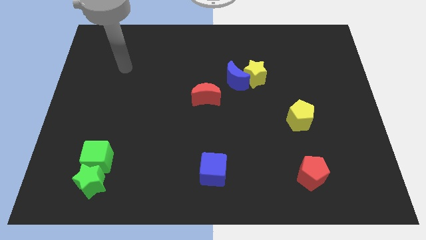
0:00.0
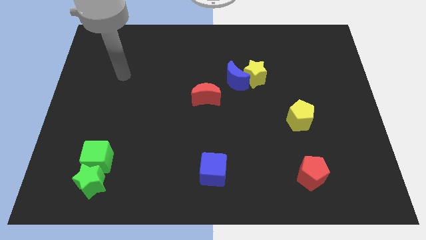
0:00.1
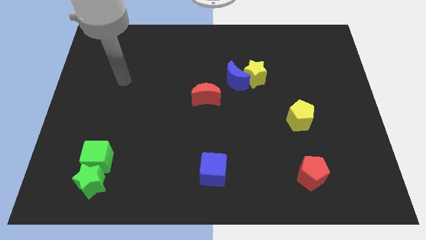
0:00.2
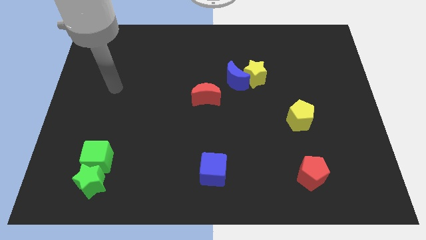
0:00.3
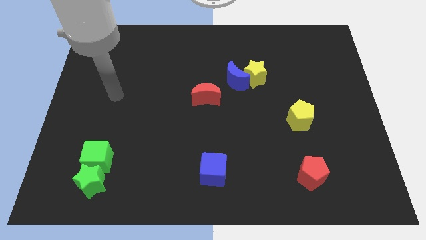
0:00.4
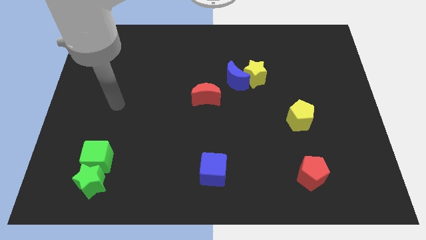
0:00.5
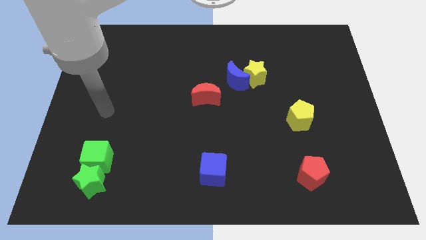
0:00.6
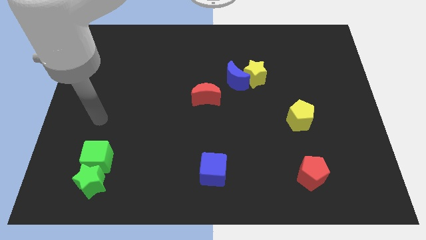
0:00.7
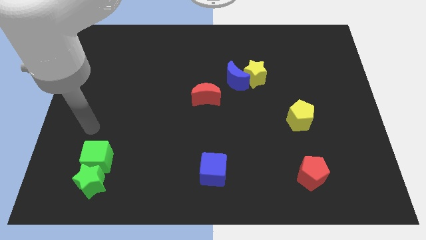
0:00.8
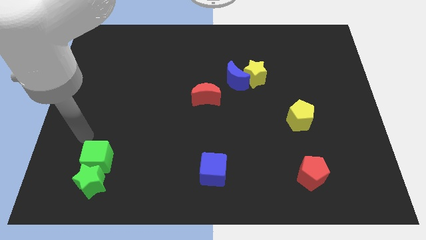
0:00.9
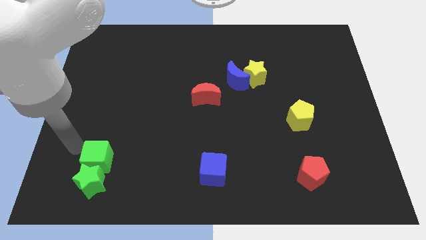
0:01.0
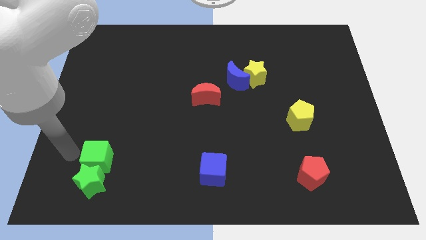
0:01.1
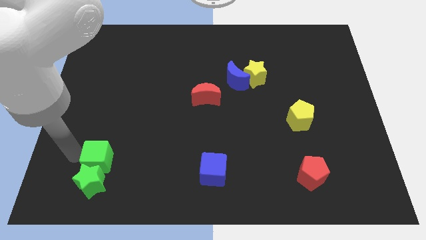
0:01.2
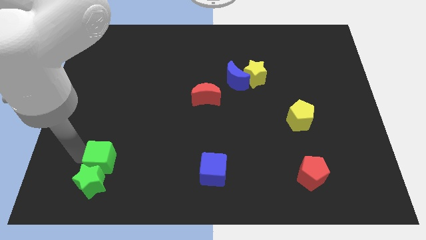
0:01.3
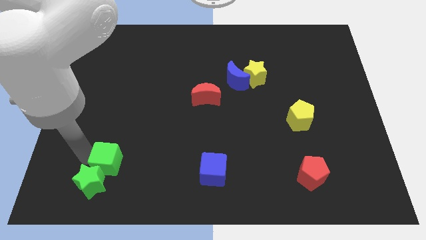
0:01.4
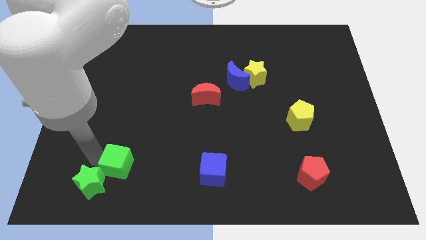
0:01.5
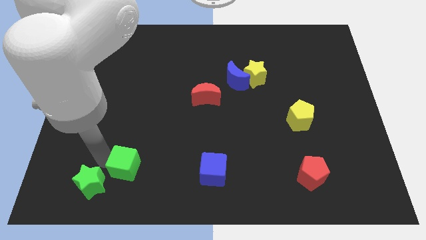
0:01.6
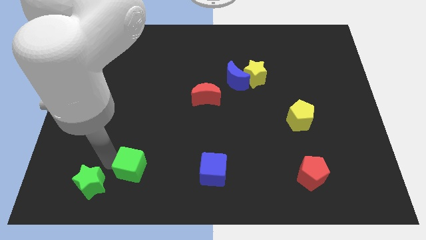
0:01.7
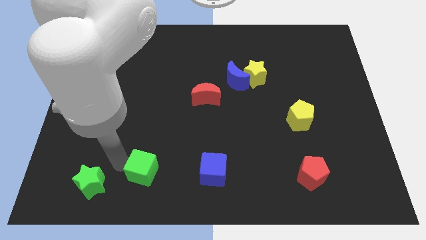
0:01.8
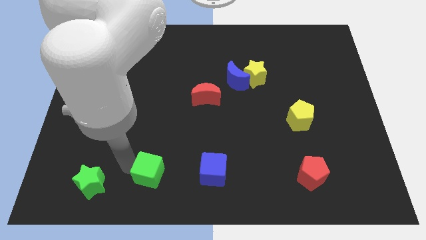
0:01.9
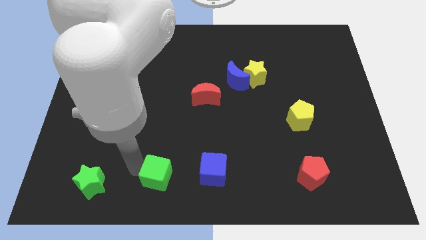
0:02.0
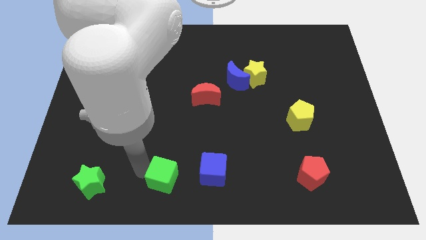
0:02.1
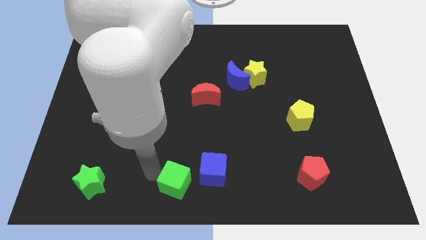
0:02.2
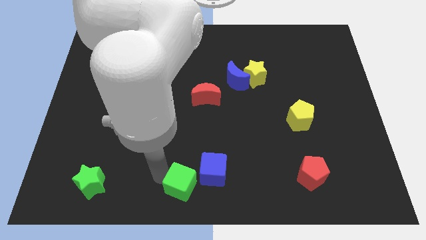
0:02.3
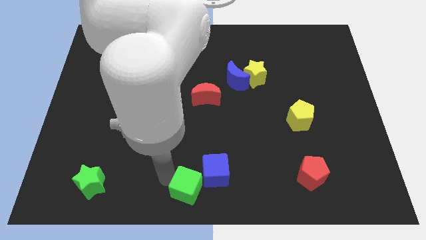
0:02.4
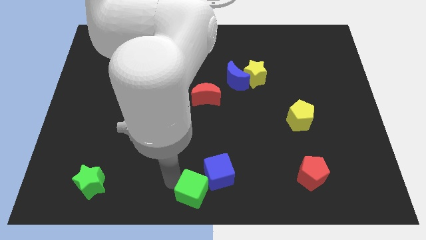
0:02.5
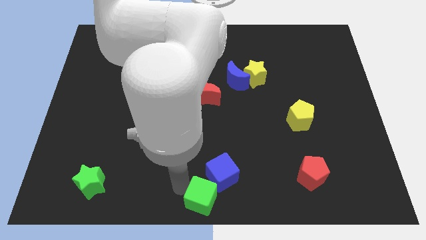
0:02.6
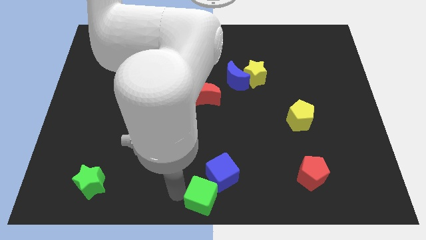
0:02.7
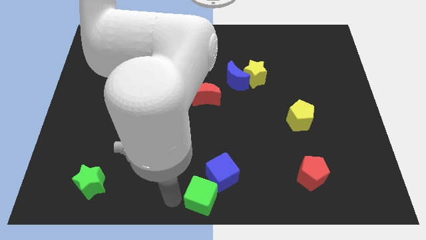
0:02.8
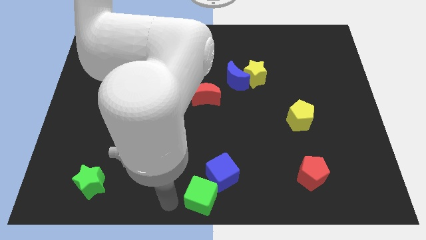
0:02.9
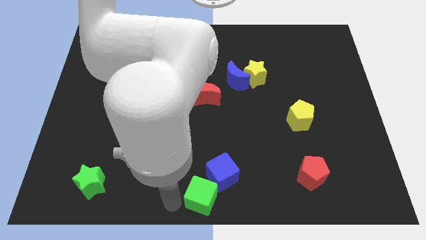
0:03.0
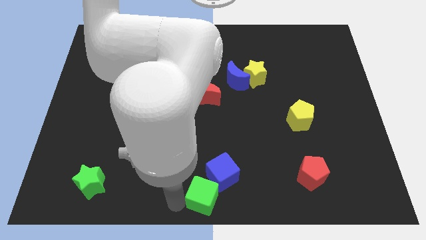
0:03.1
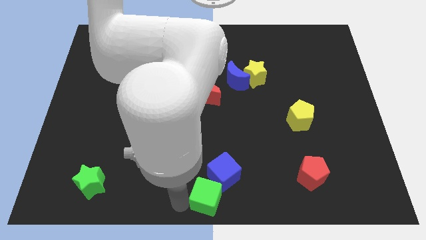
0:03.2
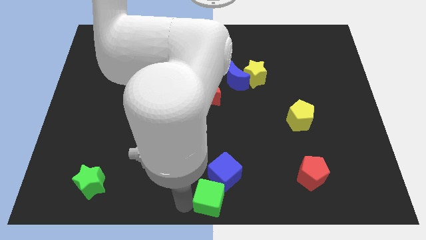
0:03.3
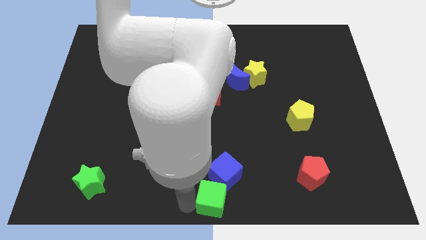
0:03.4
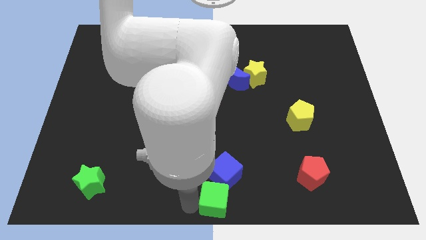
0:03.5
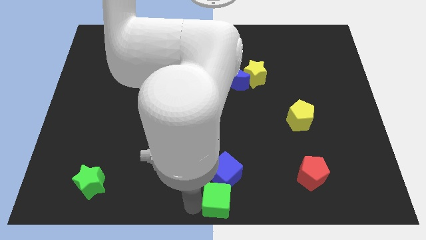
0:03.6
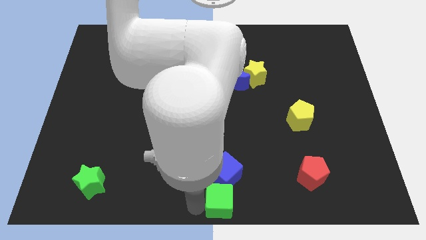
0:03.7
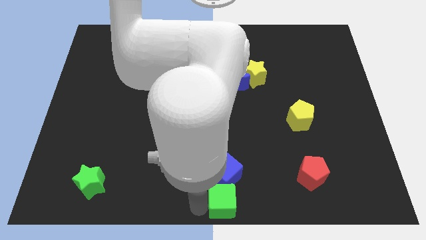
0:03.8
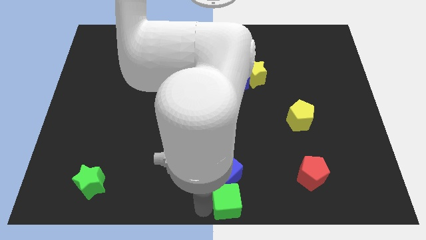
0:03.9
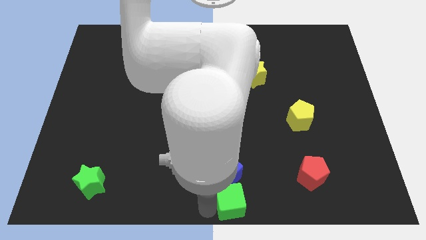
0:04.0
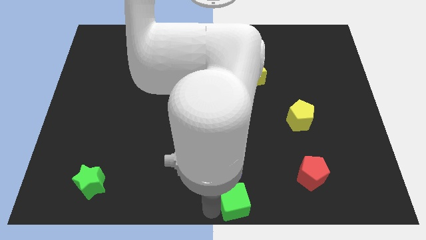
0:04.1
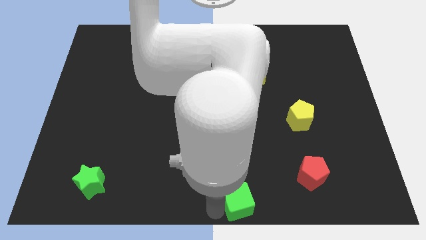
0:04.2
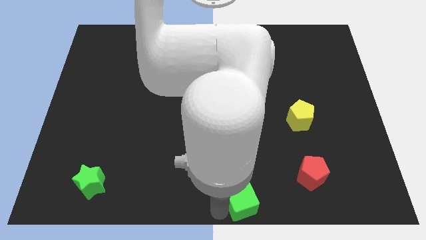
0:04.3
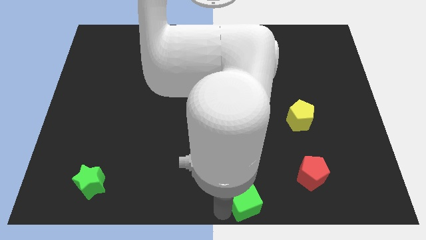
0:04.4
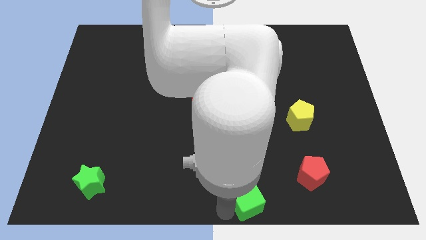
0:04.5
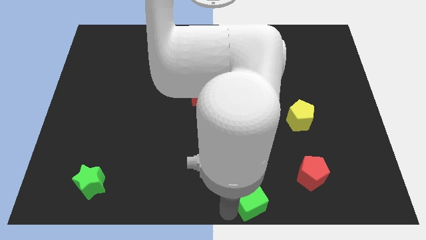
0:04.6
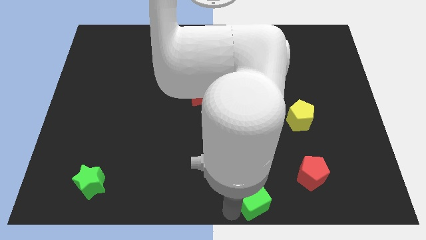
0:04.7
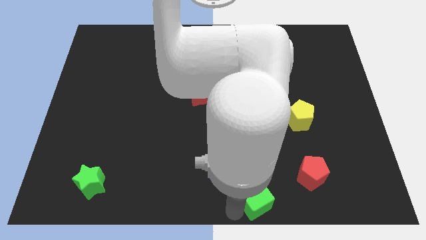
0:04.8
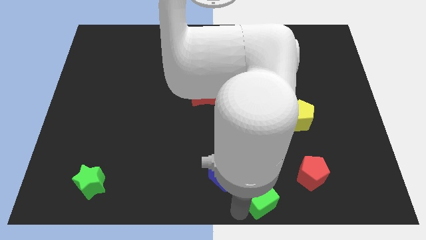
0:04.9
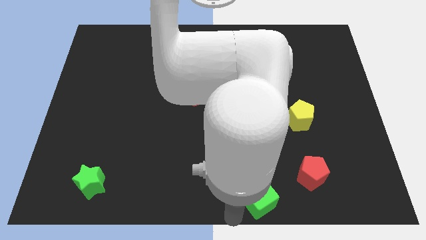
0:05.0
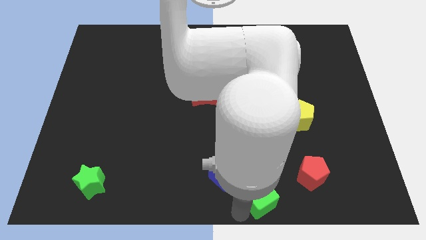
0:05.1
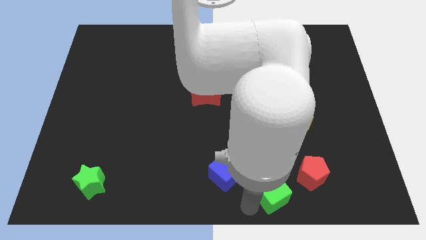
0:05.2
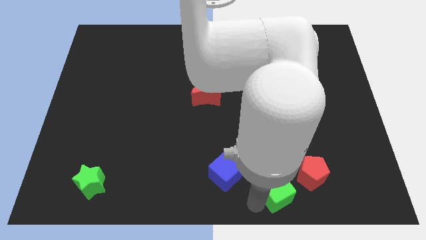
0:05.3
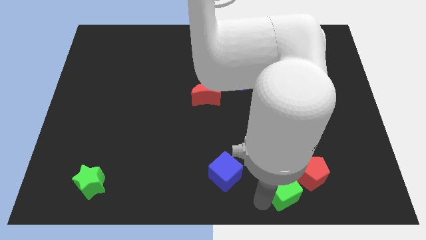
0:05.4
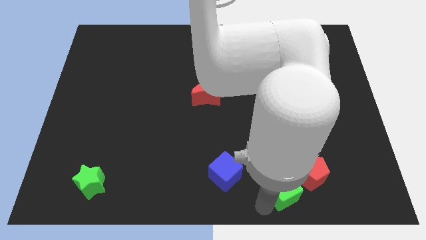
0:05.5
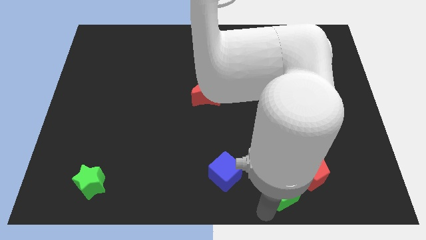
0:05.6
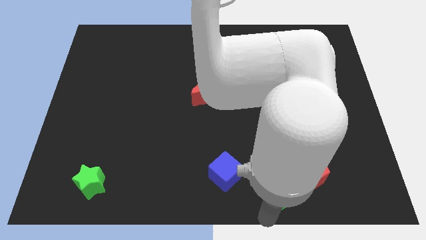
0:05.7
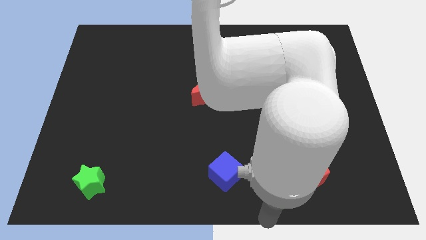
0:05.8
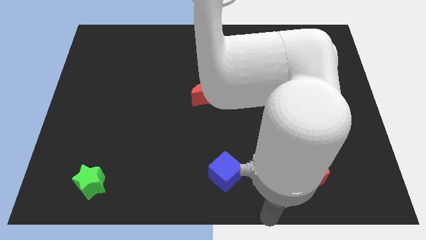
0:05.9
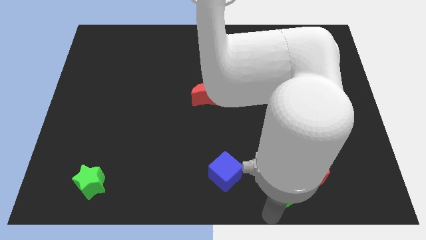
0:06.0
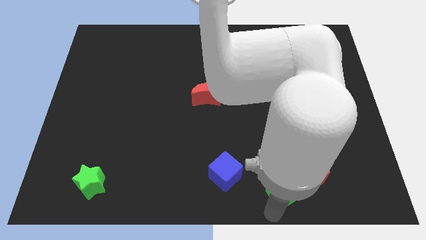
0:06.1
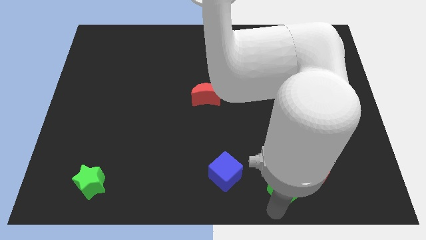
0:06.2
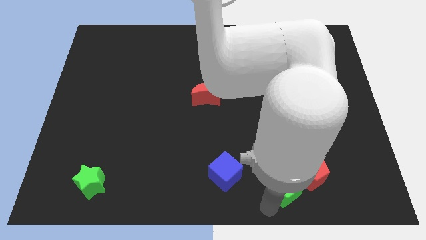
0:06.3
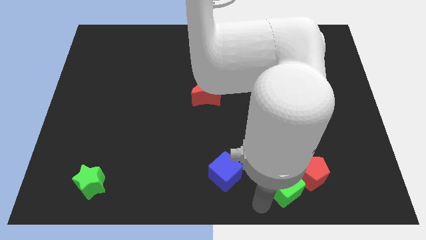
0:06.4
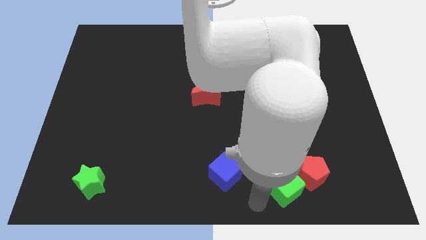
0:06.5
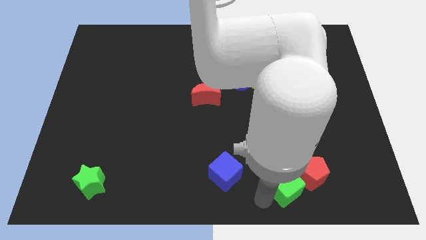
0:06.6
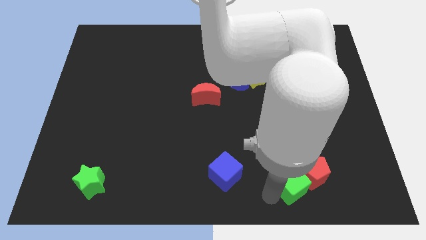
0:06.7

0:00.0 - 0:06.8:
push the green cube close to the red pentagon
